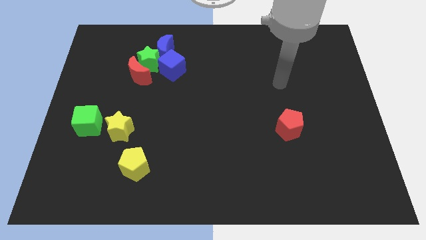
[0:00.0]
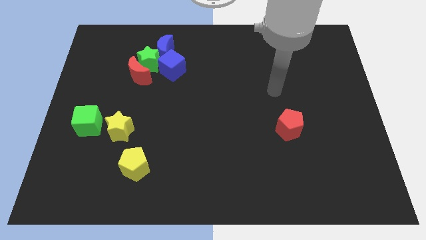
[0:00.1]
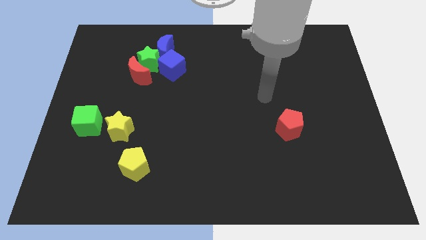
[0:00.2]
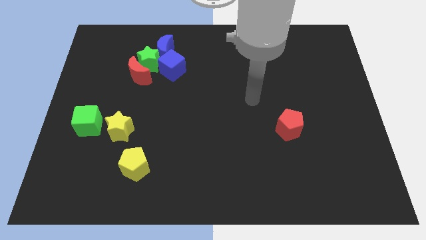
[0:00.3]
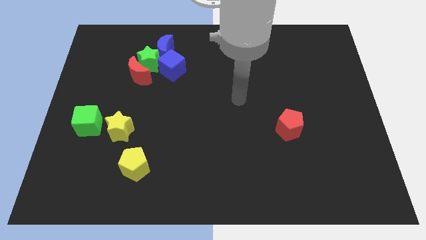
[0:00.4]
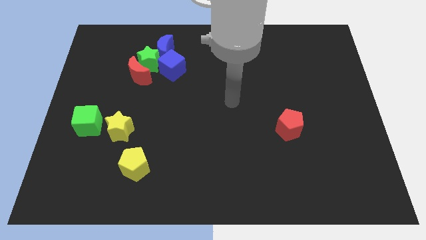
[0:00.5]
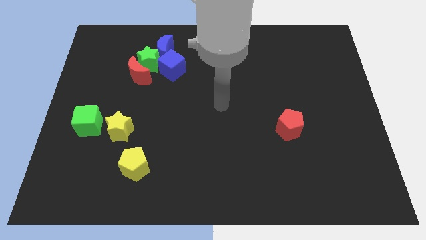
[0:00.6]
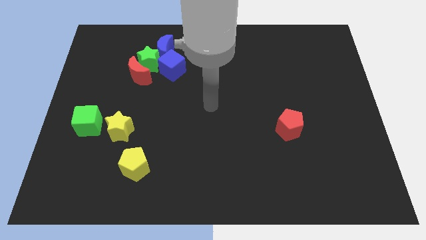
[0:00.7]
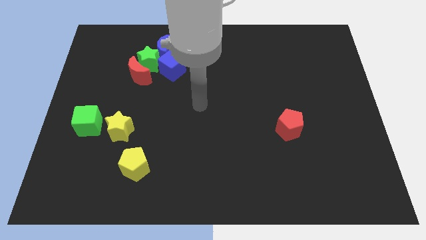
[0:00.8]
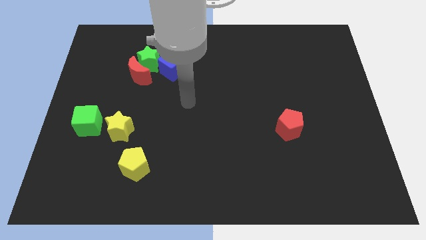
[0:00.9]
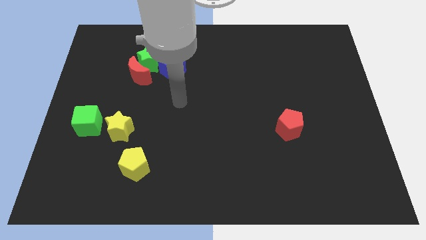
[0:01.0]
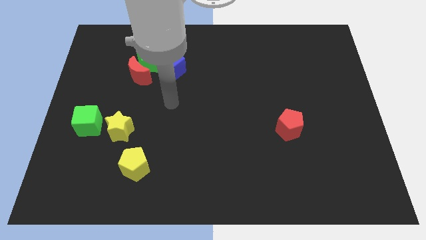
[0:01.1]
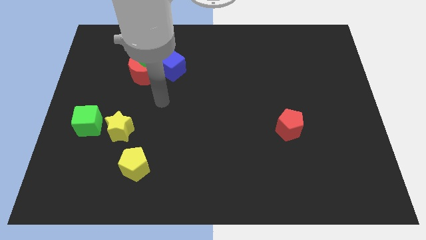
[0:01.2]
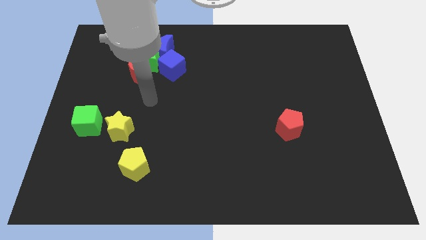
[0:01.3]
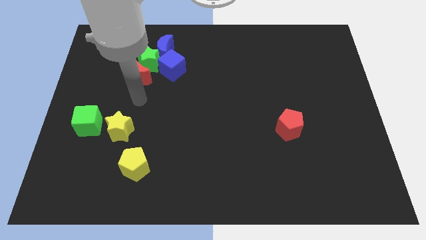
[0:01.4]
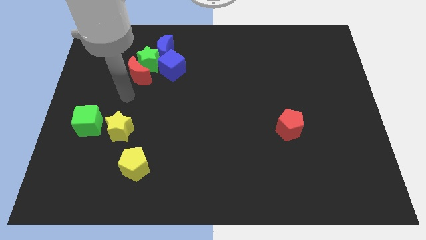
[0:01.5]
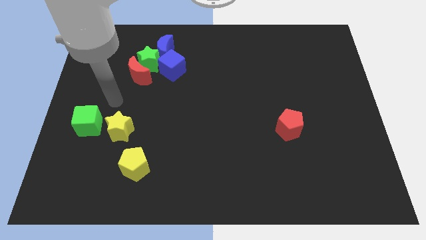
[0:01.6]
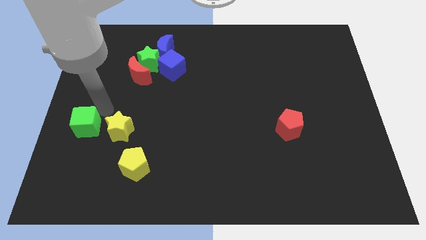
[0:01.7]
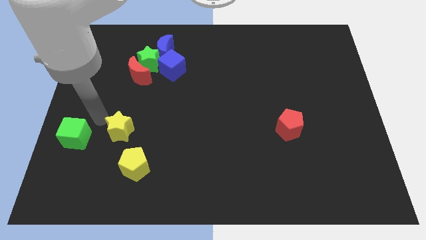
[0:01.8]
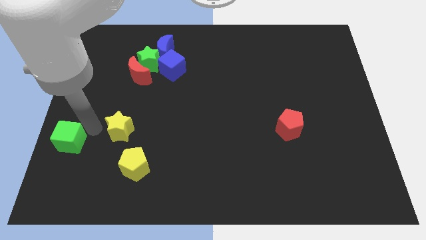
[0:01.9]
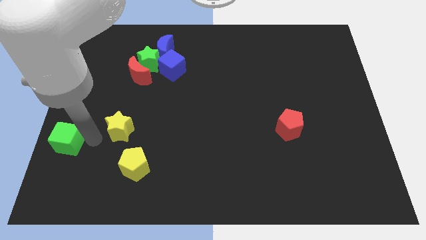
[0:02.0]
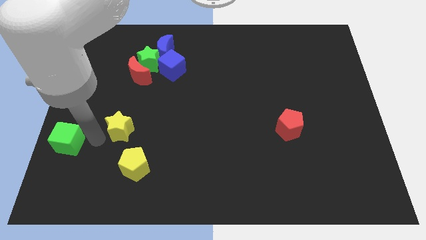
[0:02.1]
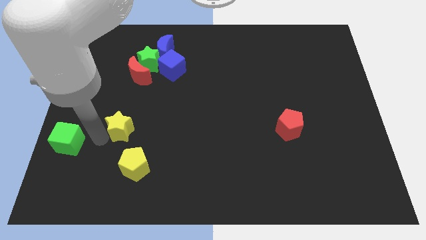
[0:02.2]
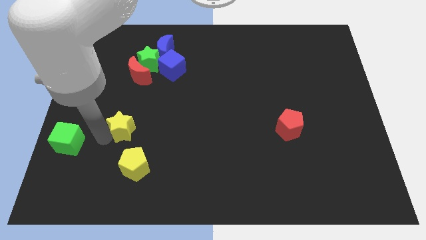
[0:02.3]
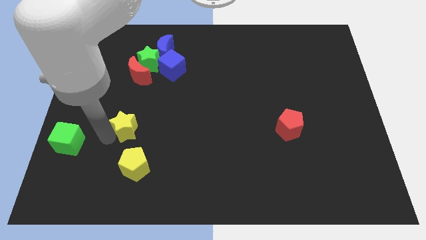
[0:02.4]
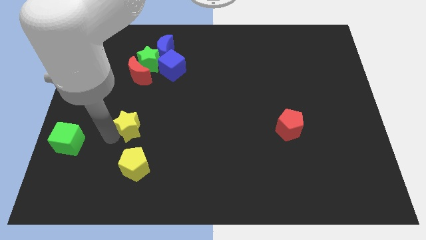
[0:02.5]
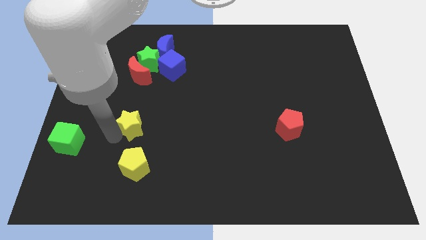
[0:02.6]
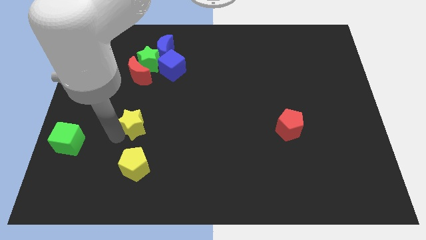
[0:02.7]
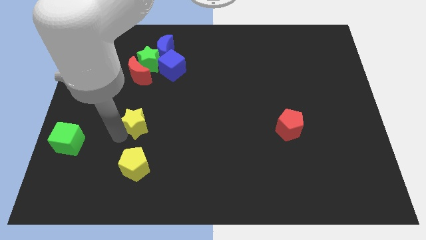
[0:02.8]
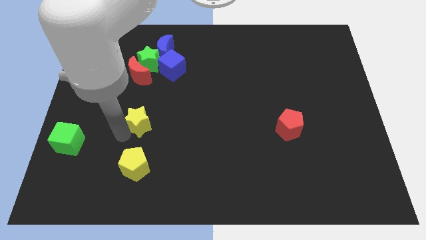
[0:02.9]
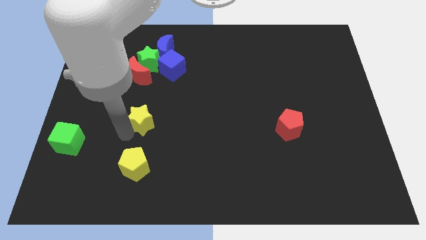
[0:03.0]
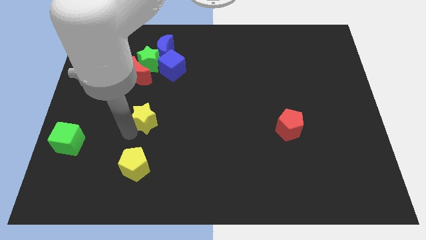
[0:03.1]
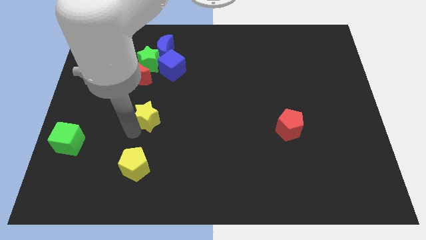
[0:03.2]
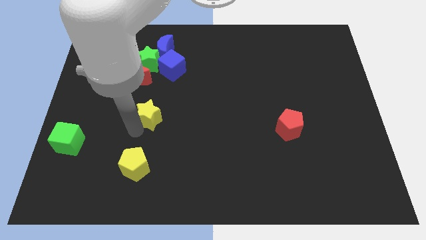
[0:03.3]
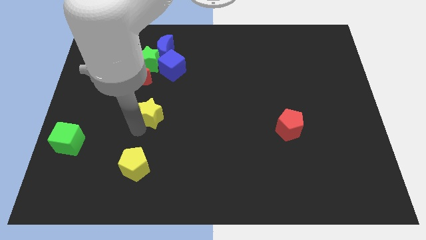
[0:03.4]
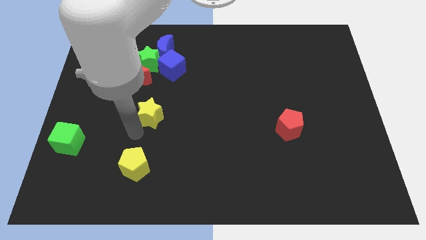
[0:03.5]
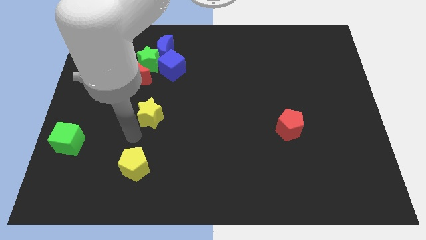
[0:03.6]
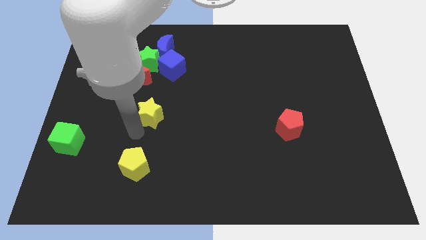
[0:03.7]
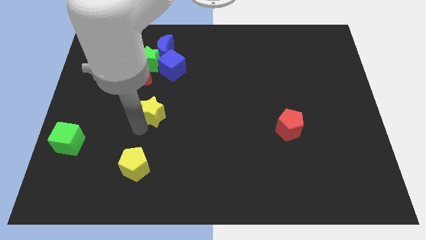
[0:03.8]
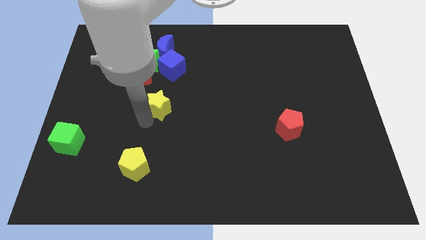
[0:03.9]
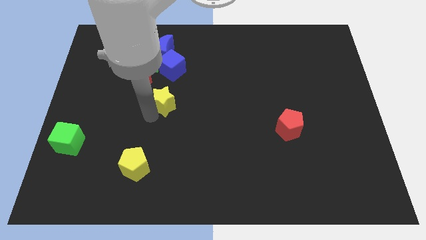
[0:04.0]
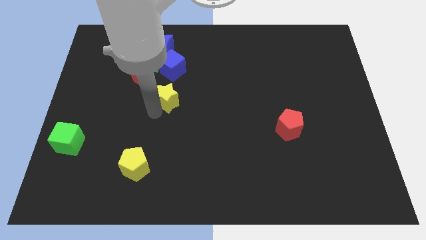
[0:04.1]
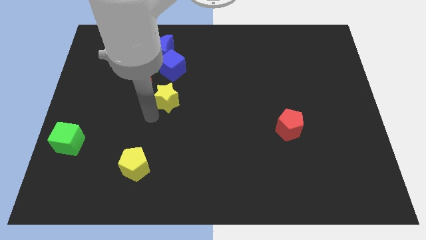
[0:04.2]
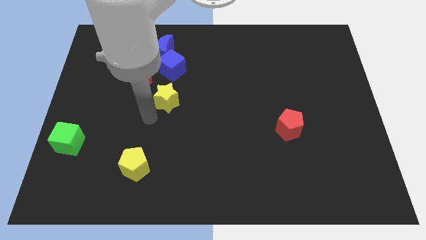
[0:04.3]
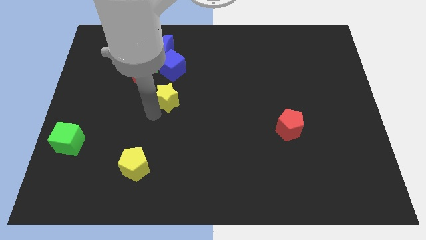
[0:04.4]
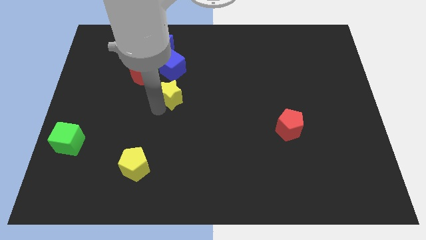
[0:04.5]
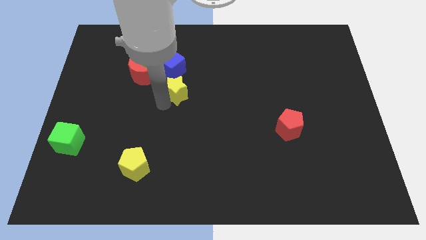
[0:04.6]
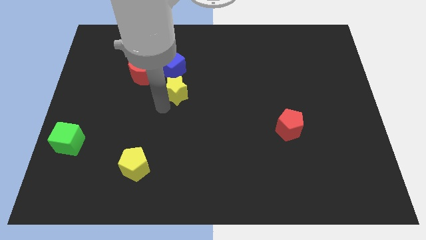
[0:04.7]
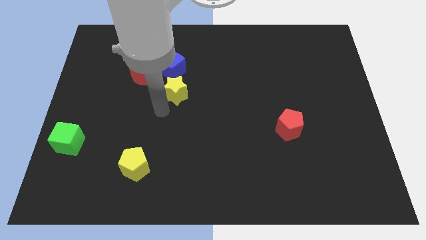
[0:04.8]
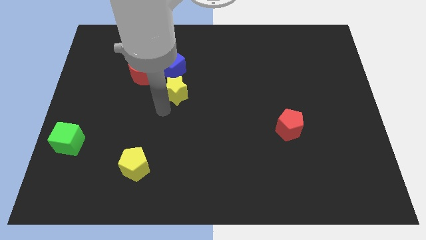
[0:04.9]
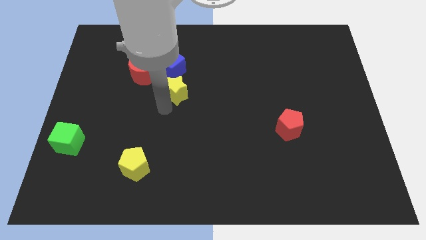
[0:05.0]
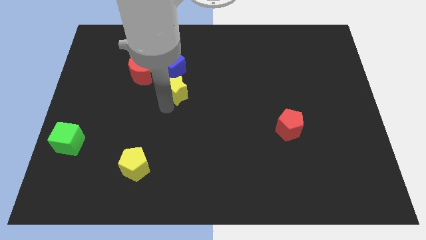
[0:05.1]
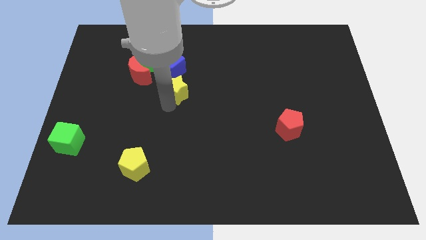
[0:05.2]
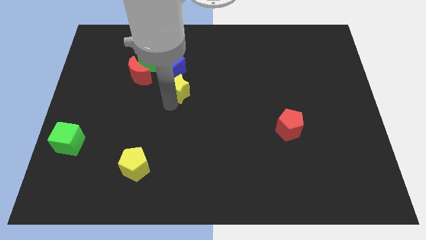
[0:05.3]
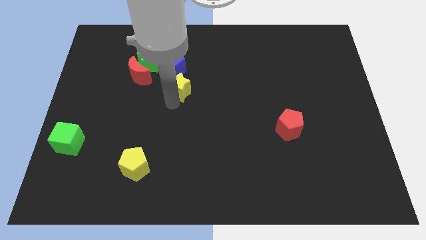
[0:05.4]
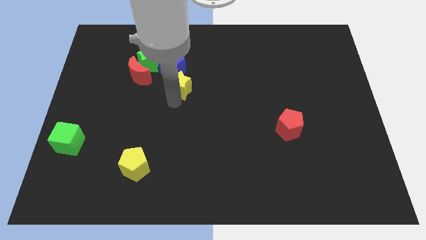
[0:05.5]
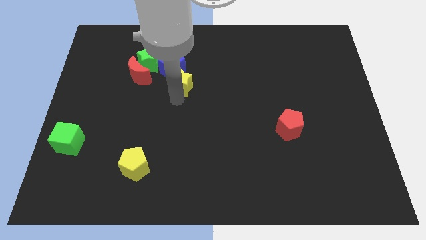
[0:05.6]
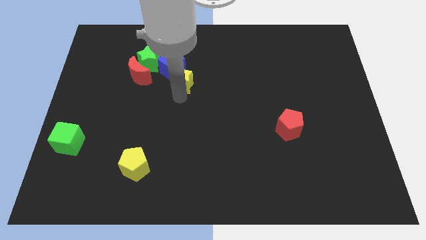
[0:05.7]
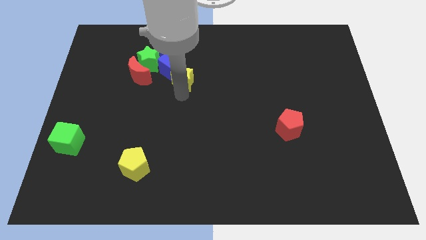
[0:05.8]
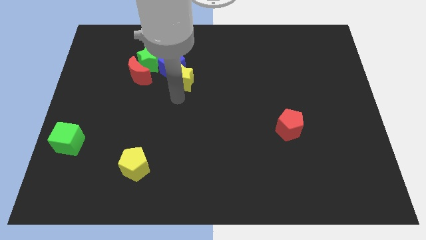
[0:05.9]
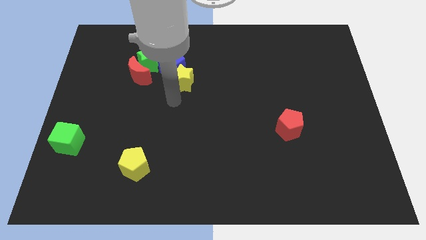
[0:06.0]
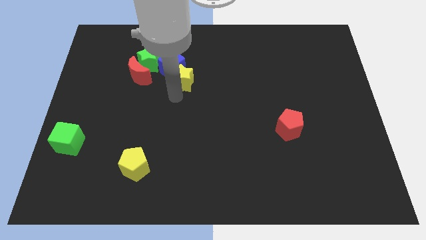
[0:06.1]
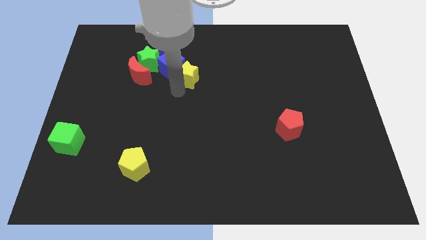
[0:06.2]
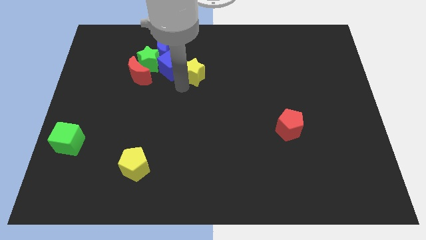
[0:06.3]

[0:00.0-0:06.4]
push the yellow star to the right of the green star

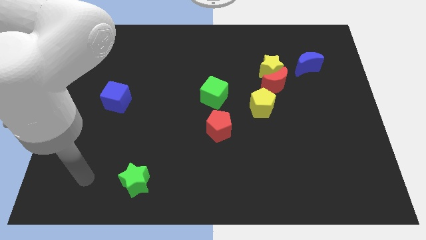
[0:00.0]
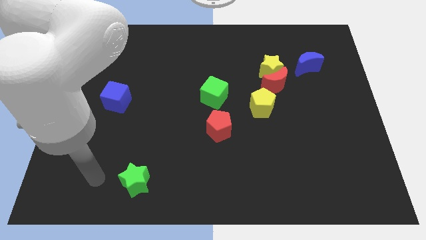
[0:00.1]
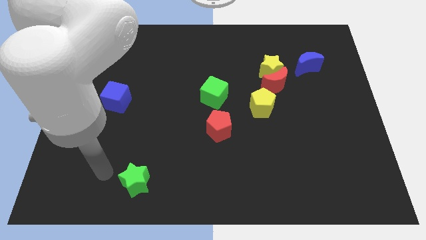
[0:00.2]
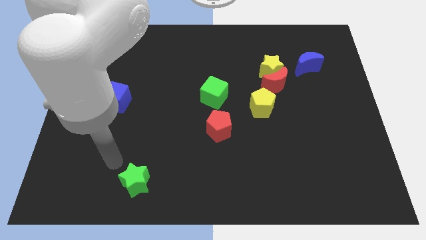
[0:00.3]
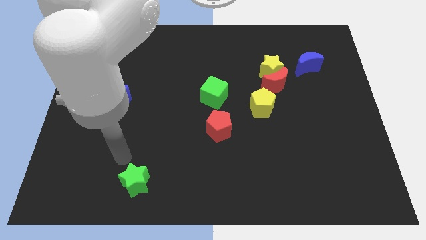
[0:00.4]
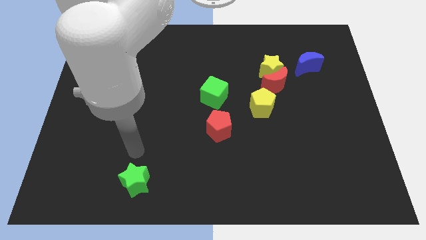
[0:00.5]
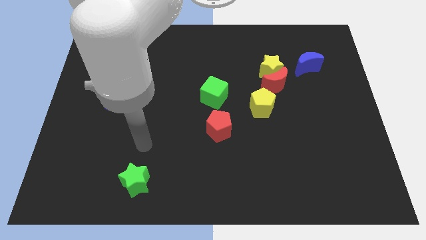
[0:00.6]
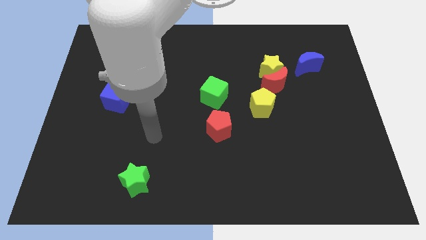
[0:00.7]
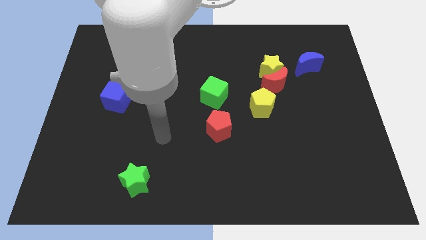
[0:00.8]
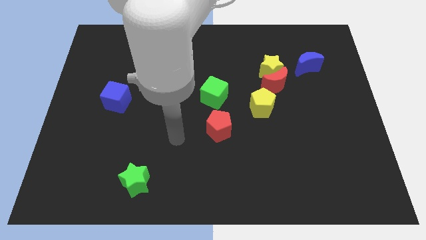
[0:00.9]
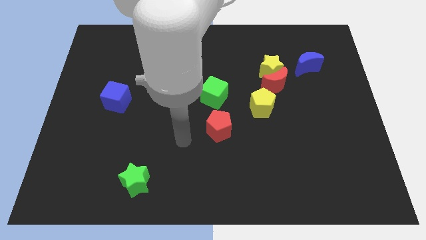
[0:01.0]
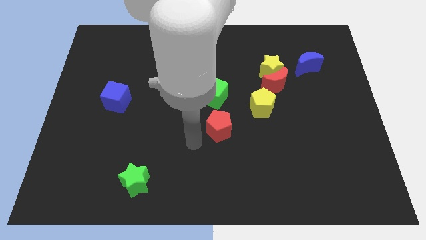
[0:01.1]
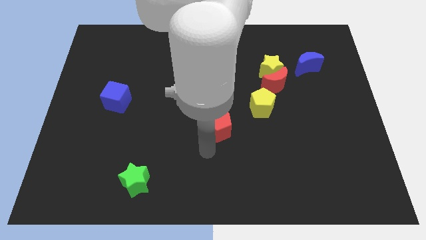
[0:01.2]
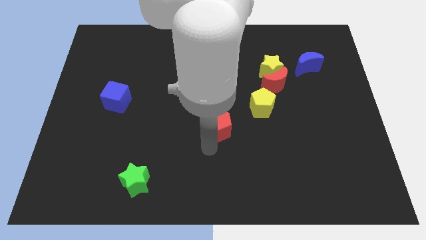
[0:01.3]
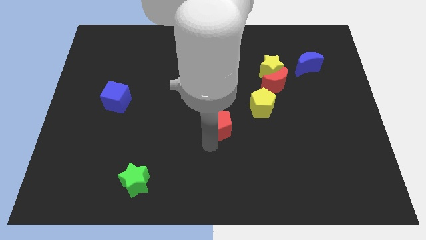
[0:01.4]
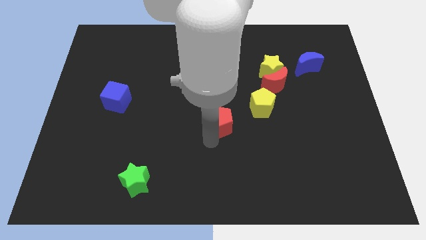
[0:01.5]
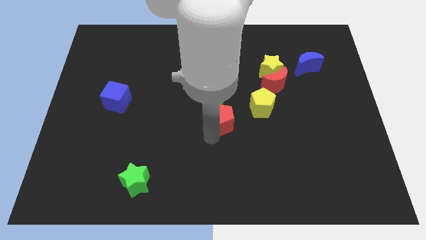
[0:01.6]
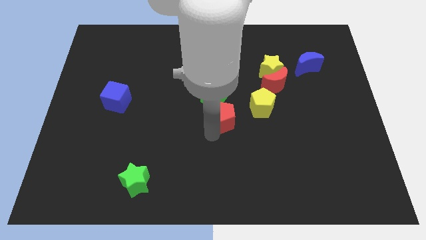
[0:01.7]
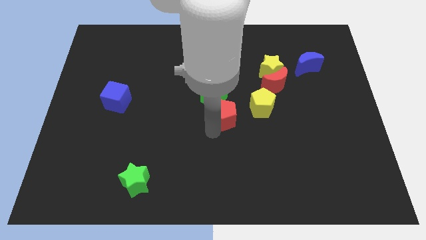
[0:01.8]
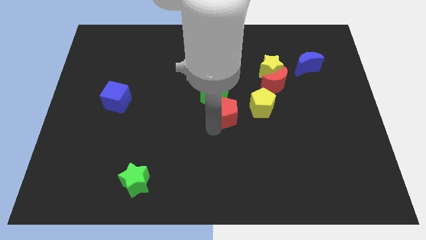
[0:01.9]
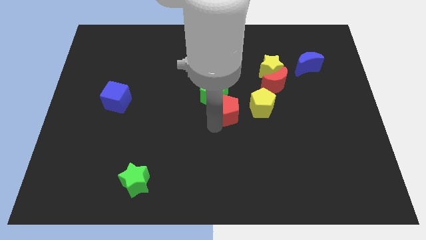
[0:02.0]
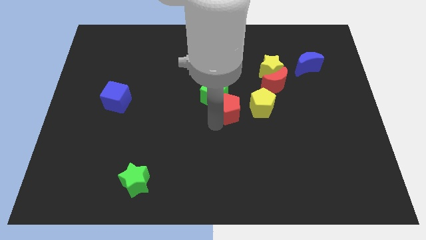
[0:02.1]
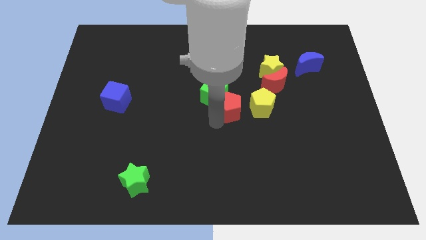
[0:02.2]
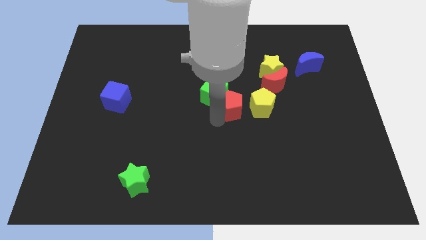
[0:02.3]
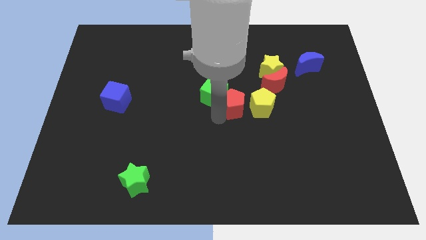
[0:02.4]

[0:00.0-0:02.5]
slide the red pentagon to the top left of the yellow pentagon
